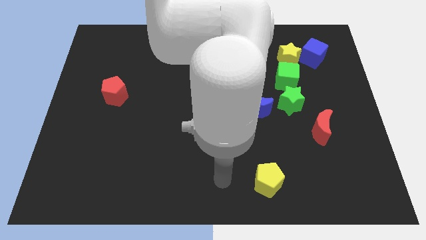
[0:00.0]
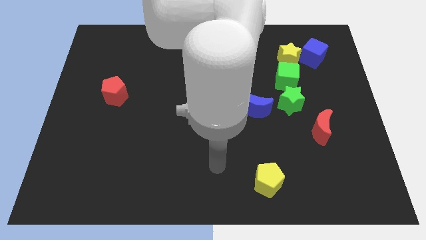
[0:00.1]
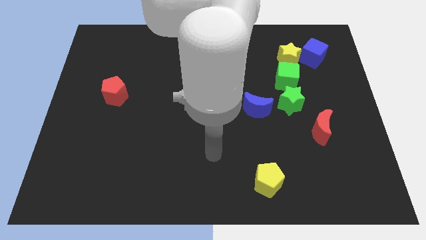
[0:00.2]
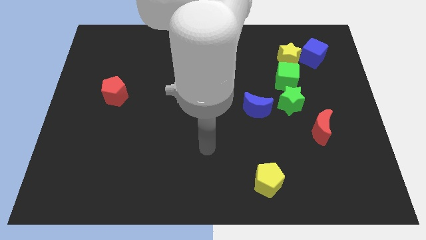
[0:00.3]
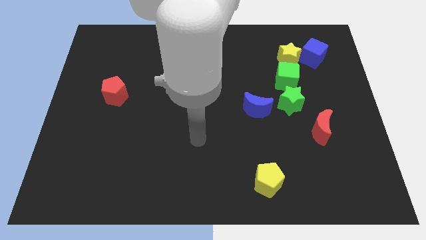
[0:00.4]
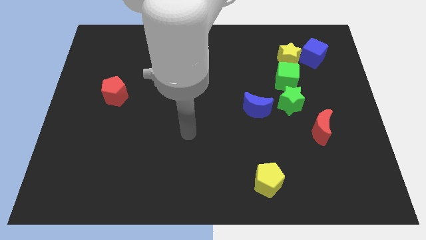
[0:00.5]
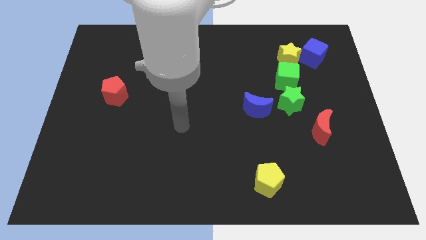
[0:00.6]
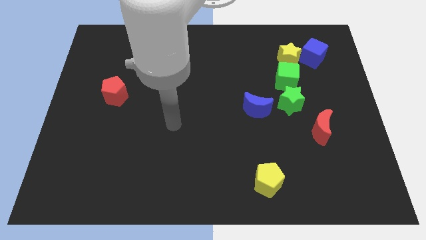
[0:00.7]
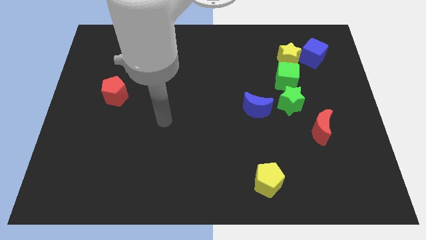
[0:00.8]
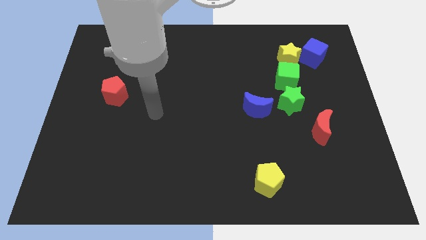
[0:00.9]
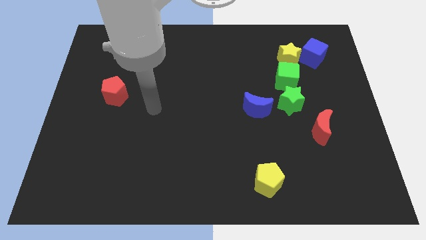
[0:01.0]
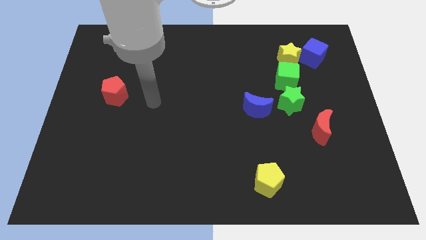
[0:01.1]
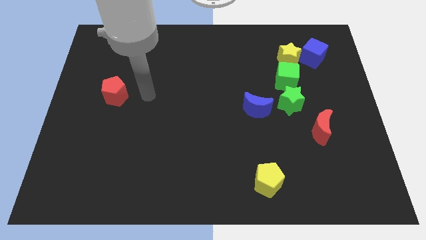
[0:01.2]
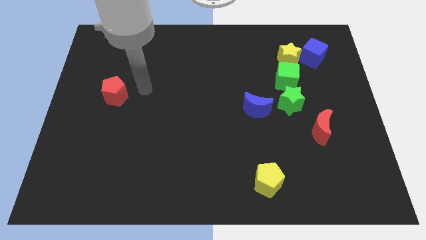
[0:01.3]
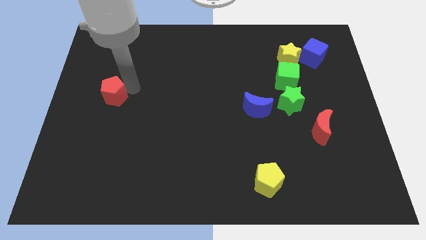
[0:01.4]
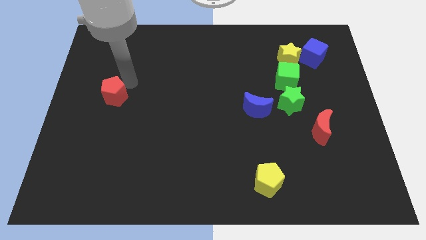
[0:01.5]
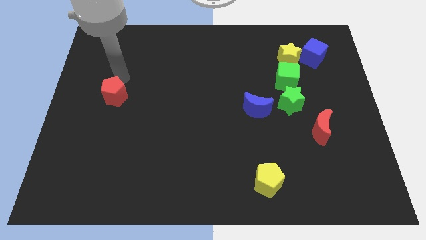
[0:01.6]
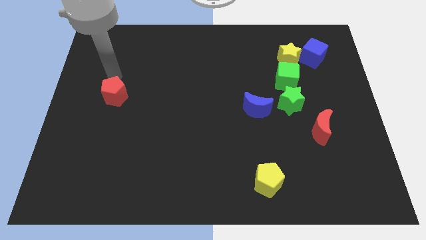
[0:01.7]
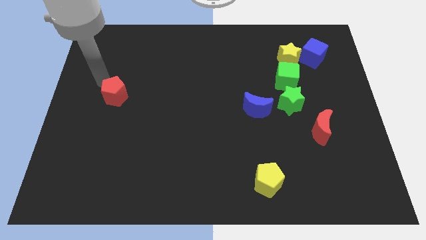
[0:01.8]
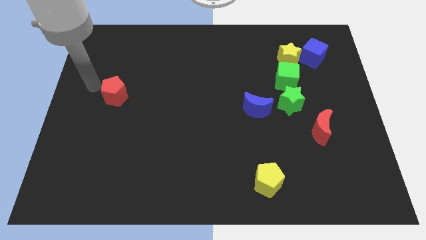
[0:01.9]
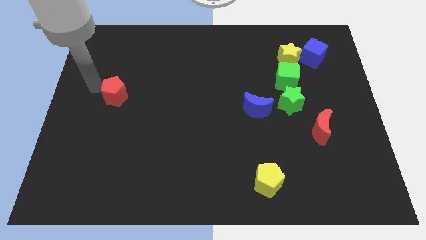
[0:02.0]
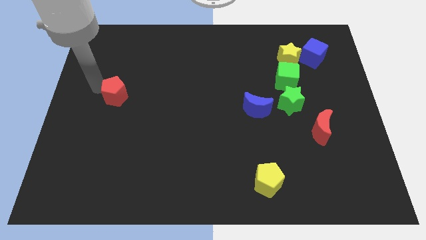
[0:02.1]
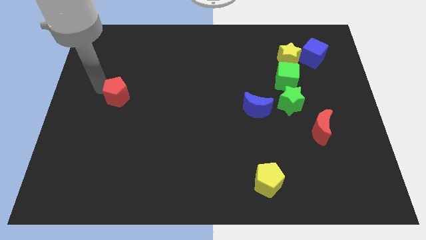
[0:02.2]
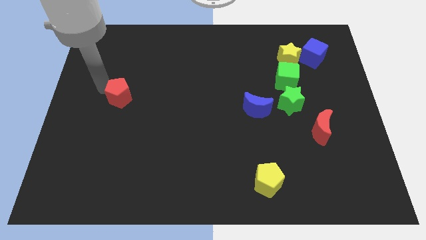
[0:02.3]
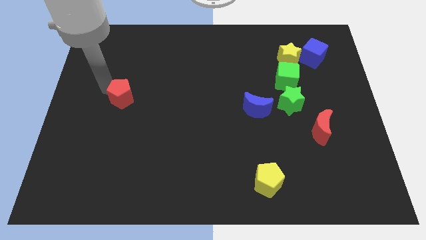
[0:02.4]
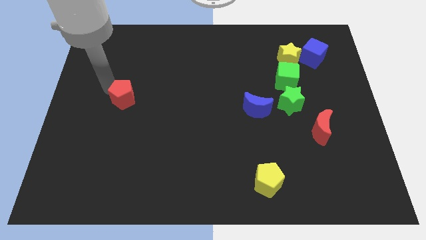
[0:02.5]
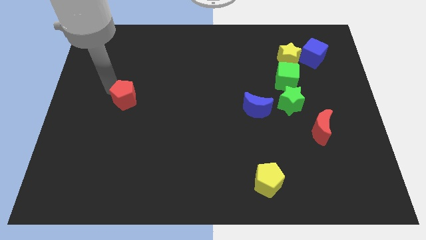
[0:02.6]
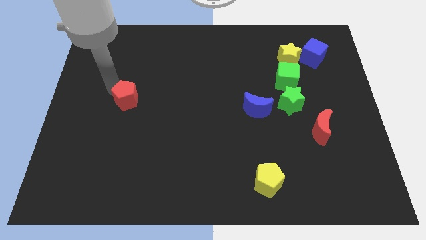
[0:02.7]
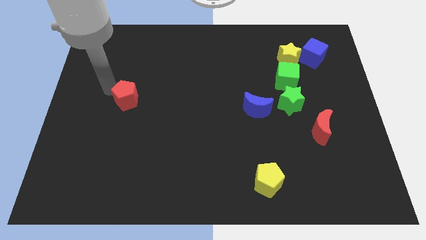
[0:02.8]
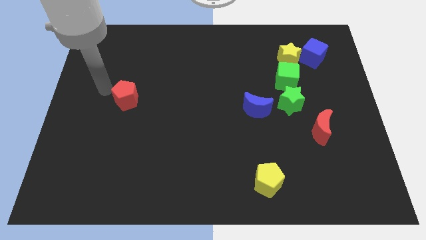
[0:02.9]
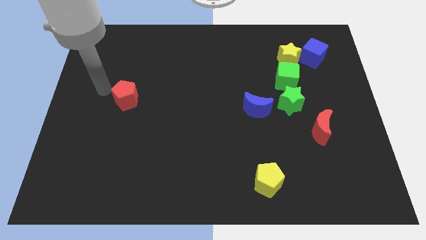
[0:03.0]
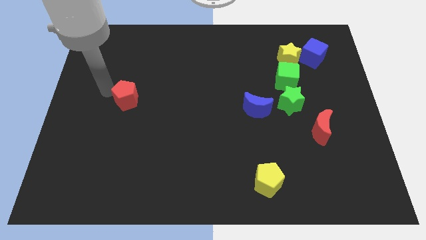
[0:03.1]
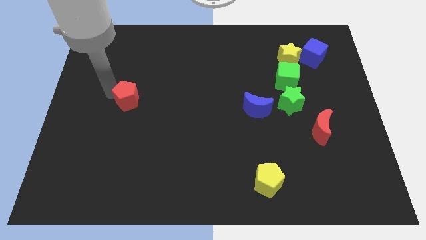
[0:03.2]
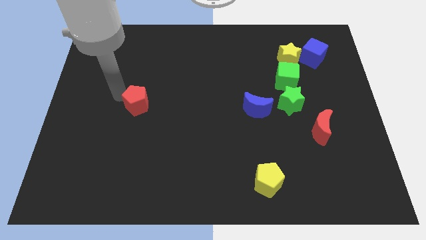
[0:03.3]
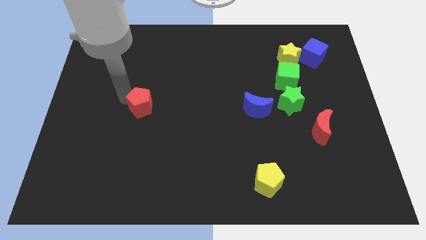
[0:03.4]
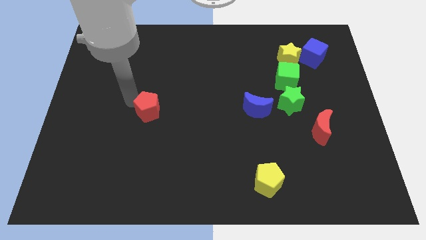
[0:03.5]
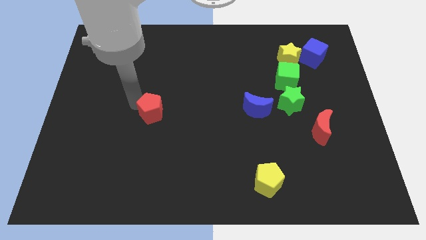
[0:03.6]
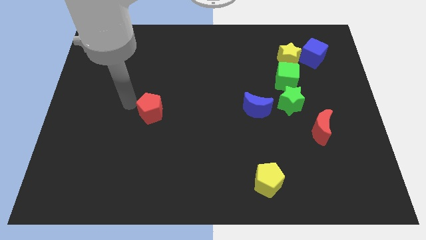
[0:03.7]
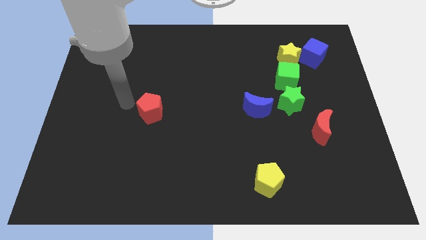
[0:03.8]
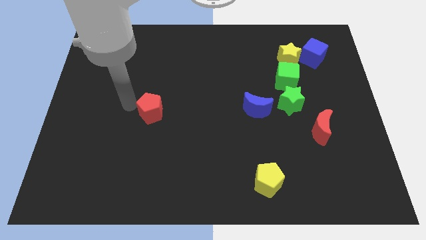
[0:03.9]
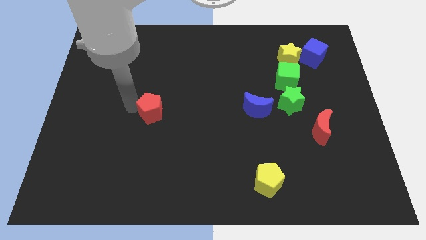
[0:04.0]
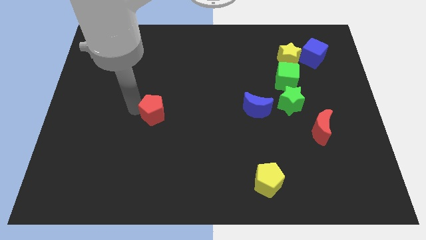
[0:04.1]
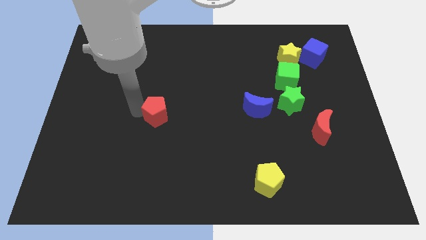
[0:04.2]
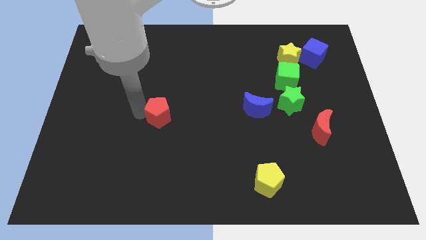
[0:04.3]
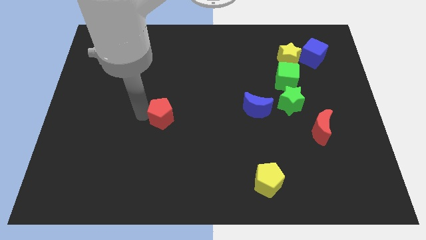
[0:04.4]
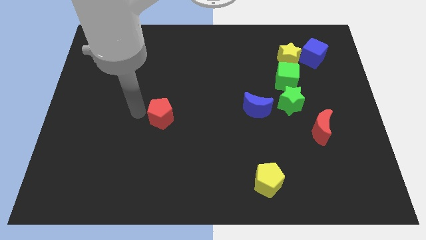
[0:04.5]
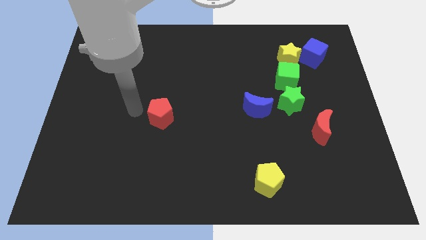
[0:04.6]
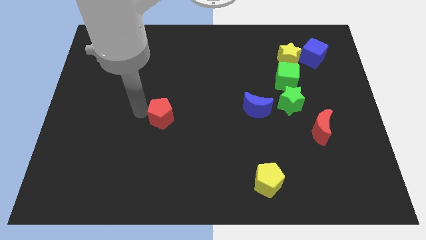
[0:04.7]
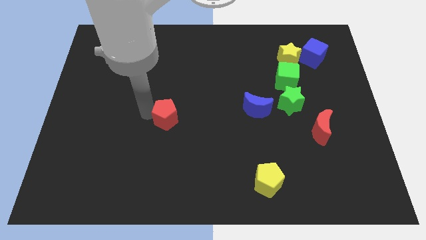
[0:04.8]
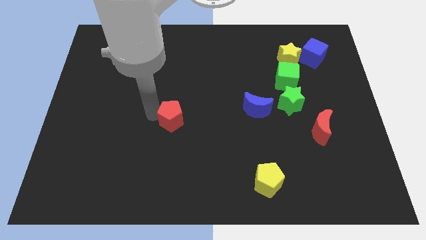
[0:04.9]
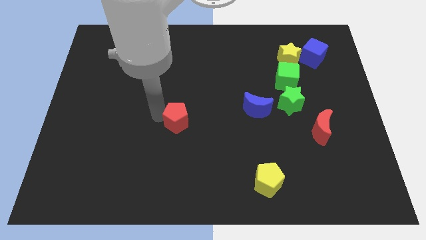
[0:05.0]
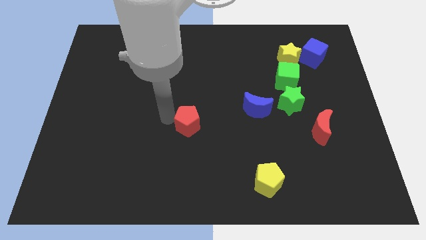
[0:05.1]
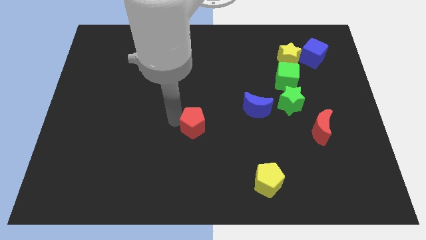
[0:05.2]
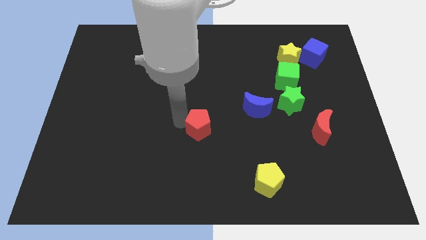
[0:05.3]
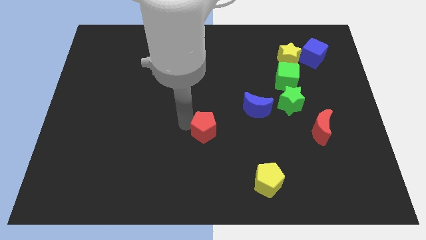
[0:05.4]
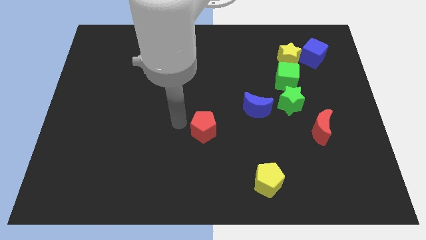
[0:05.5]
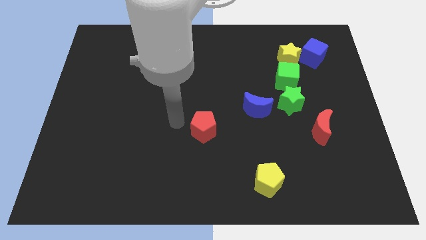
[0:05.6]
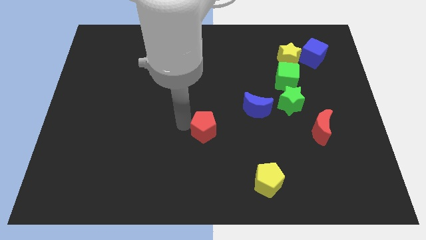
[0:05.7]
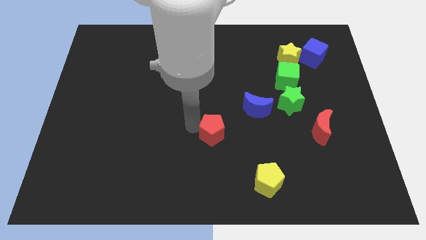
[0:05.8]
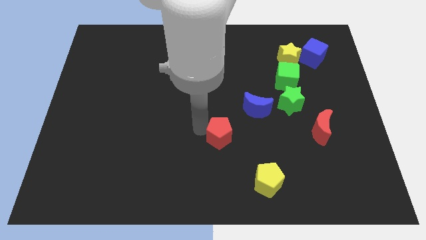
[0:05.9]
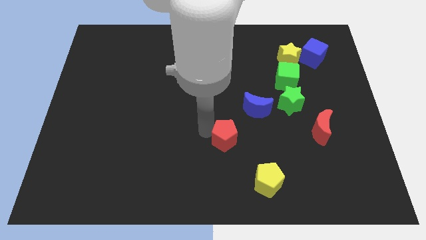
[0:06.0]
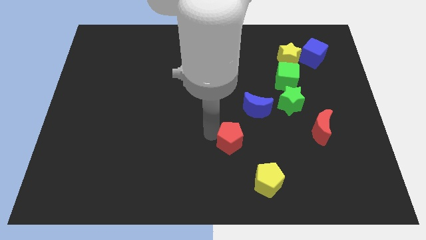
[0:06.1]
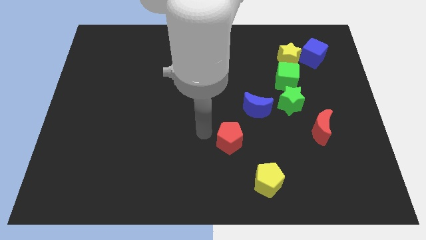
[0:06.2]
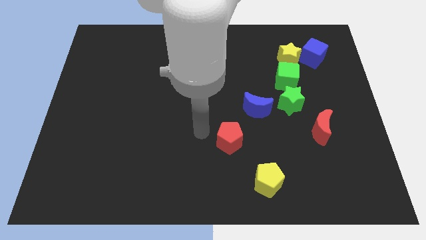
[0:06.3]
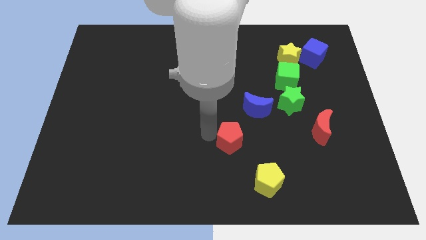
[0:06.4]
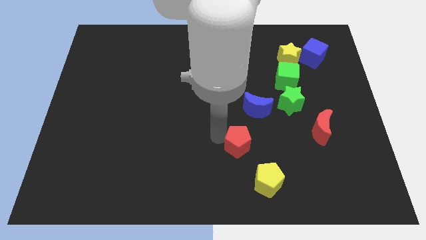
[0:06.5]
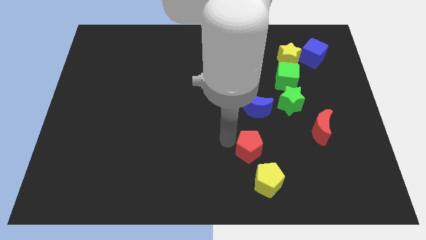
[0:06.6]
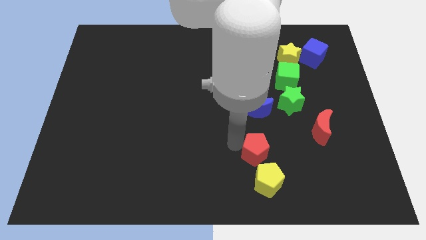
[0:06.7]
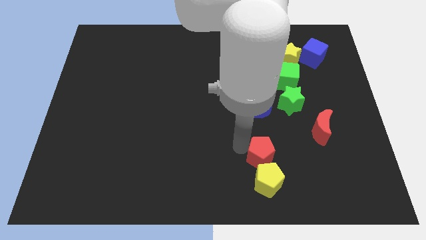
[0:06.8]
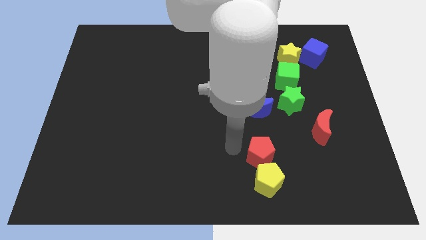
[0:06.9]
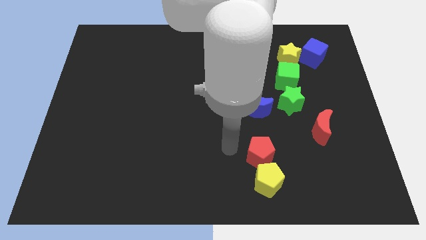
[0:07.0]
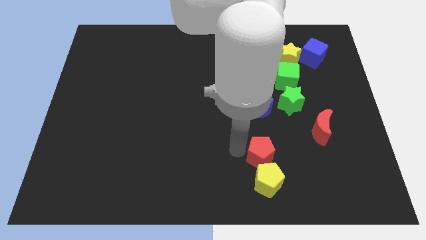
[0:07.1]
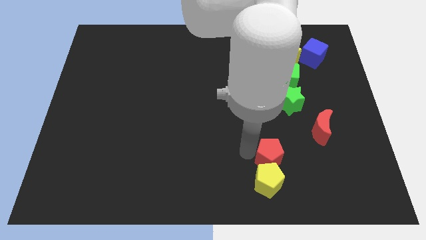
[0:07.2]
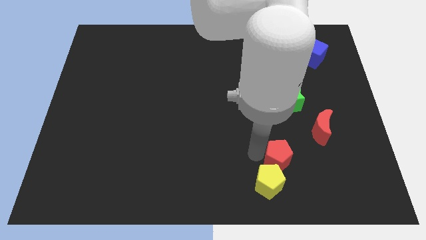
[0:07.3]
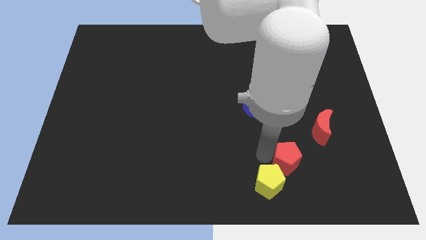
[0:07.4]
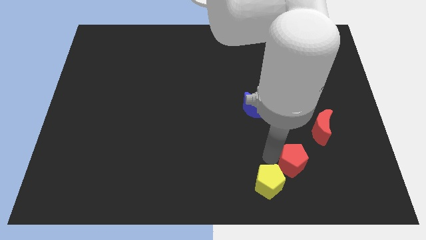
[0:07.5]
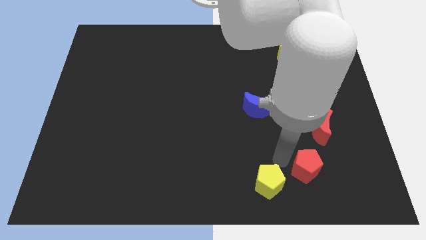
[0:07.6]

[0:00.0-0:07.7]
push the red pentagon below the red moon
